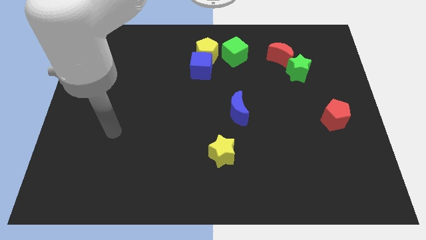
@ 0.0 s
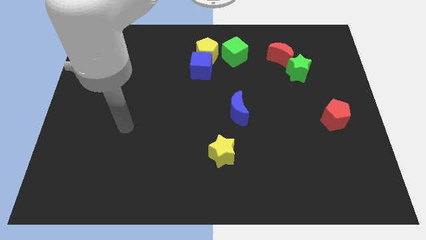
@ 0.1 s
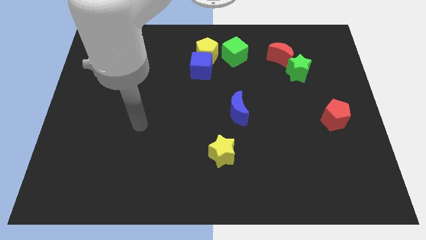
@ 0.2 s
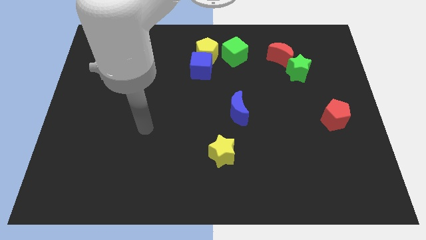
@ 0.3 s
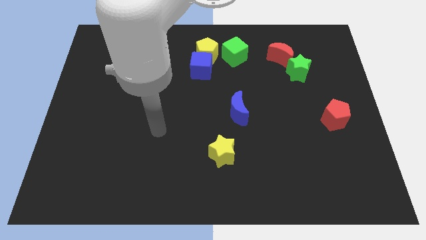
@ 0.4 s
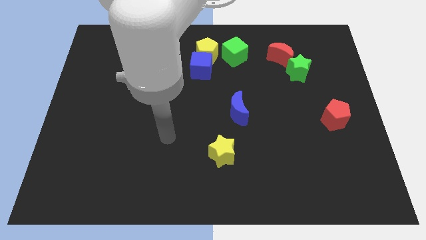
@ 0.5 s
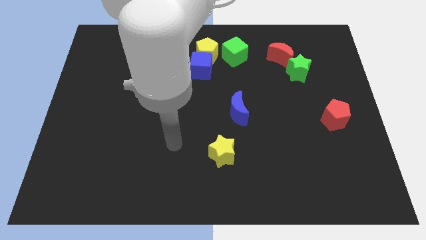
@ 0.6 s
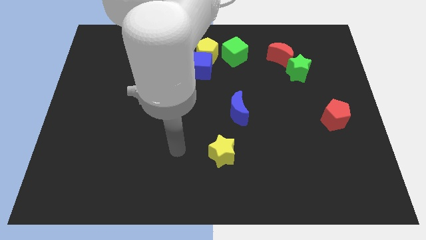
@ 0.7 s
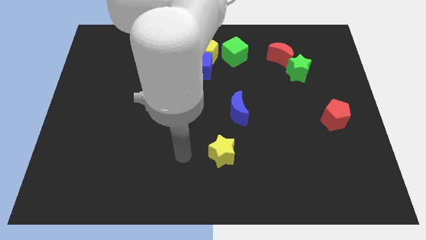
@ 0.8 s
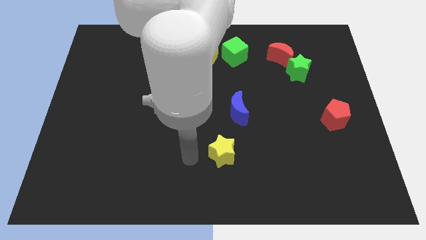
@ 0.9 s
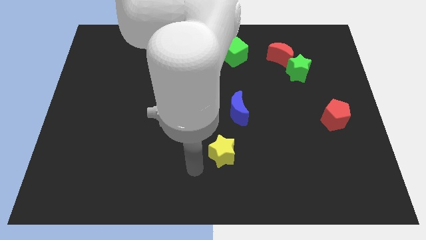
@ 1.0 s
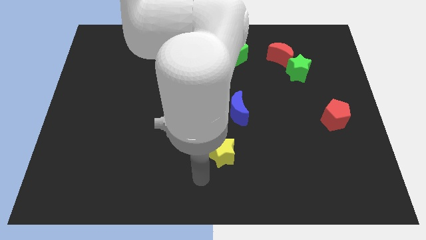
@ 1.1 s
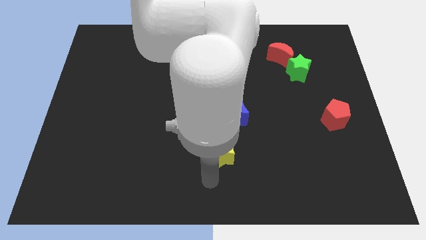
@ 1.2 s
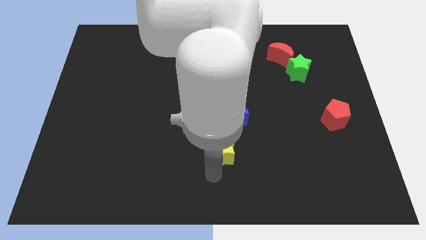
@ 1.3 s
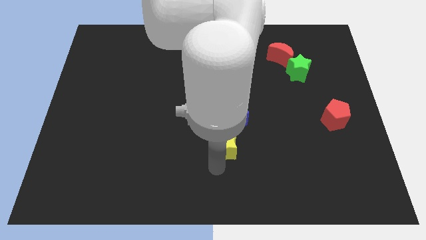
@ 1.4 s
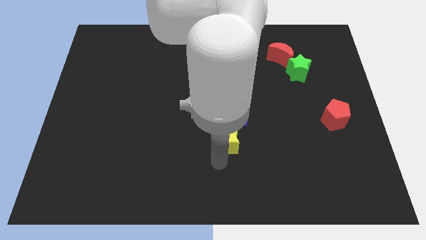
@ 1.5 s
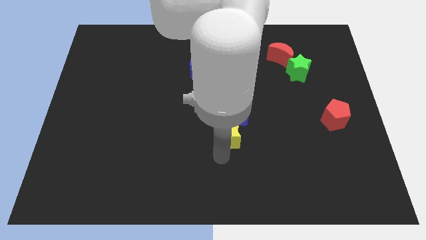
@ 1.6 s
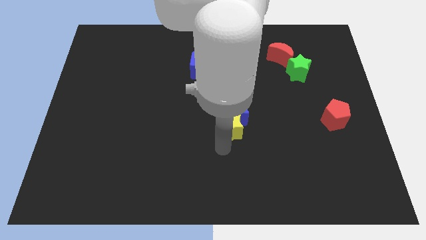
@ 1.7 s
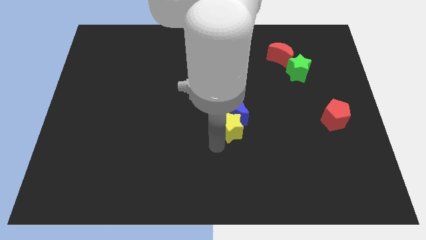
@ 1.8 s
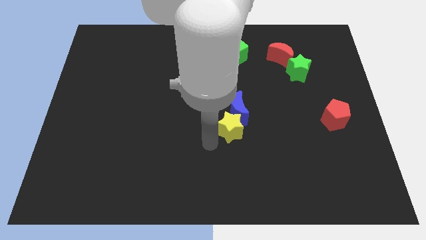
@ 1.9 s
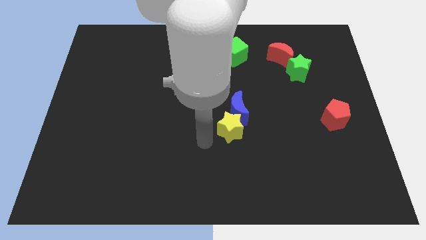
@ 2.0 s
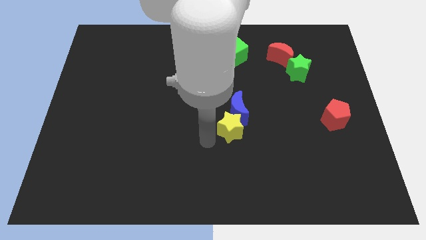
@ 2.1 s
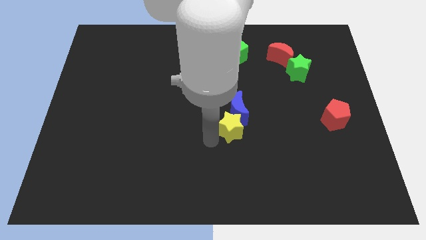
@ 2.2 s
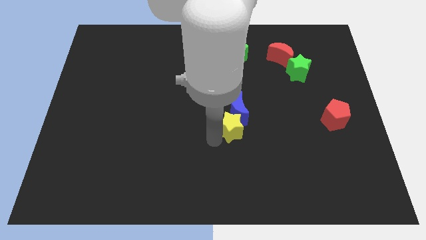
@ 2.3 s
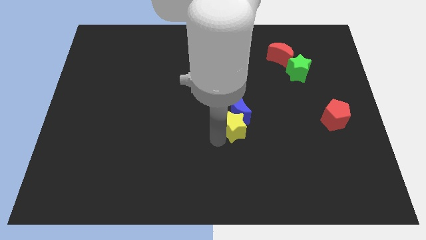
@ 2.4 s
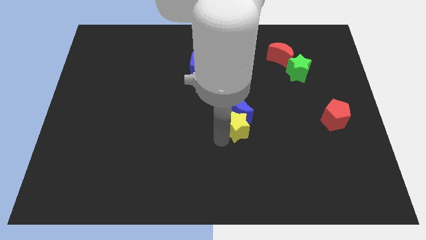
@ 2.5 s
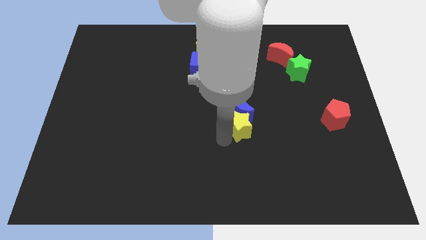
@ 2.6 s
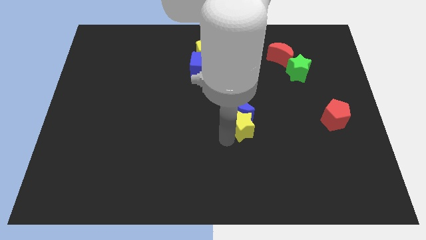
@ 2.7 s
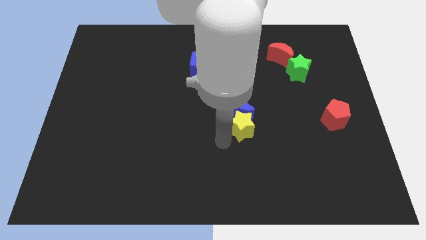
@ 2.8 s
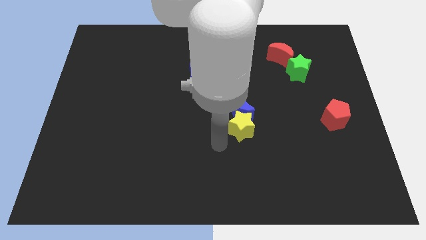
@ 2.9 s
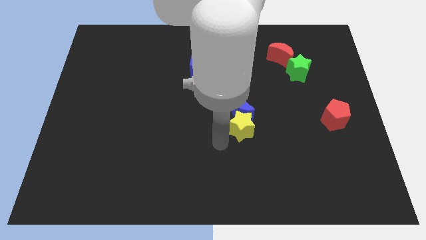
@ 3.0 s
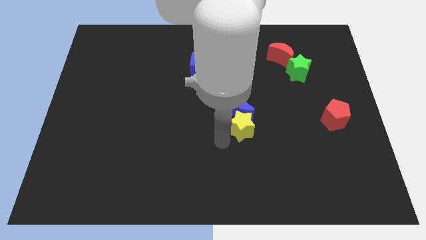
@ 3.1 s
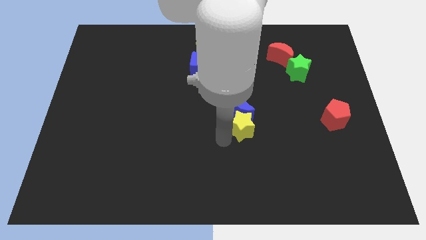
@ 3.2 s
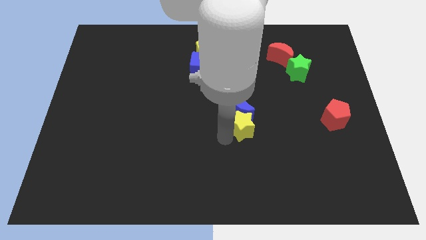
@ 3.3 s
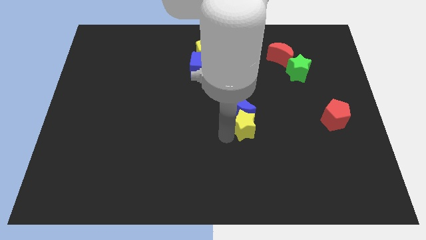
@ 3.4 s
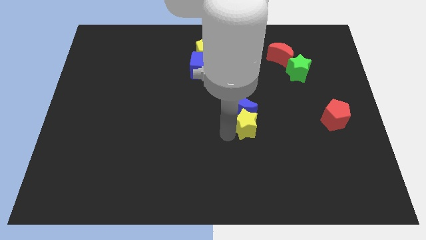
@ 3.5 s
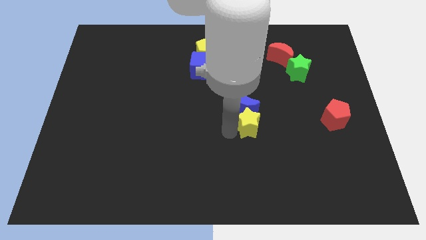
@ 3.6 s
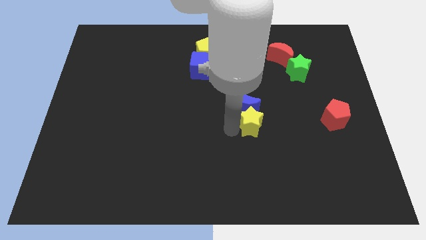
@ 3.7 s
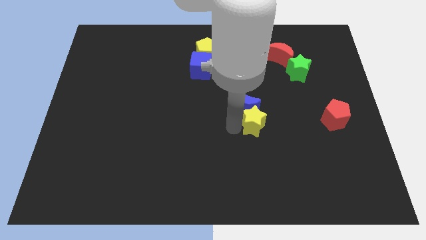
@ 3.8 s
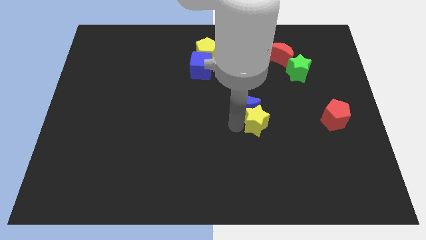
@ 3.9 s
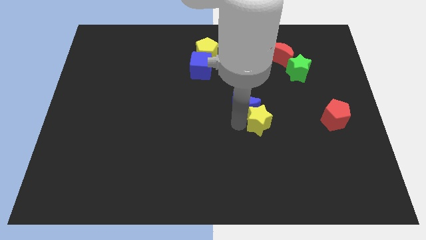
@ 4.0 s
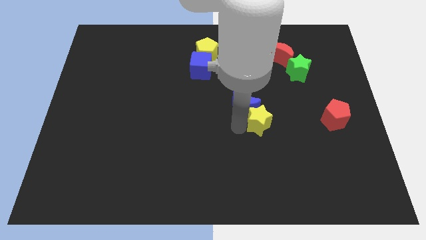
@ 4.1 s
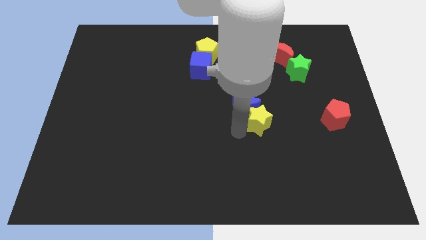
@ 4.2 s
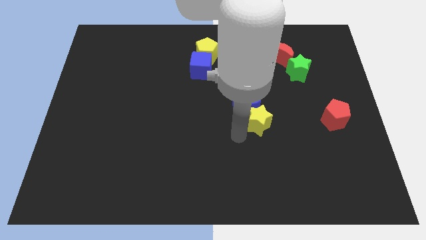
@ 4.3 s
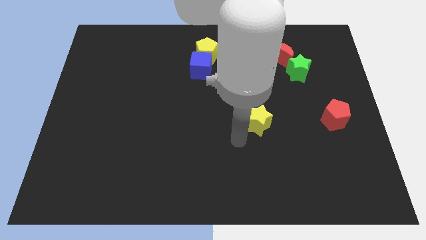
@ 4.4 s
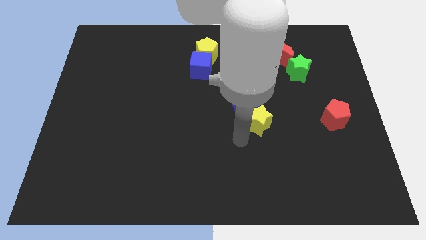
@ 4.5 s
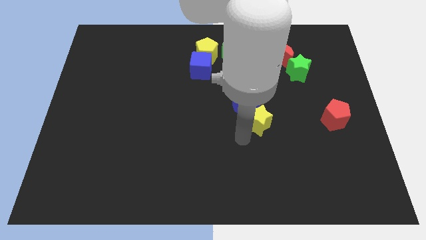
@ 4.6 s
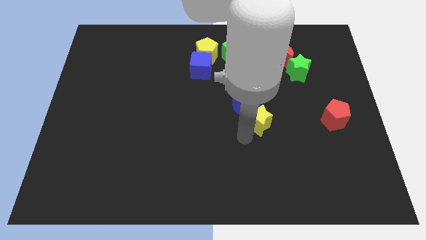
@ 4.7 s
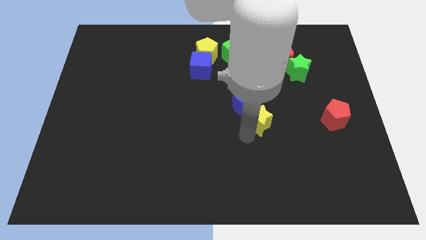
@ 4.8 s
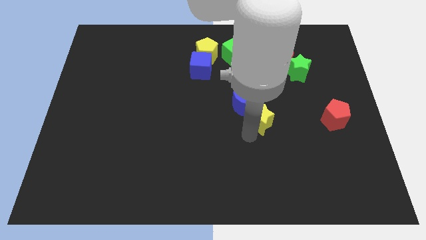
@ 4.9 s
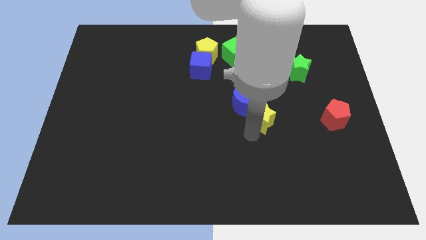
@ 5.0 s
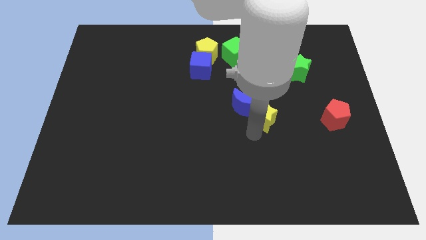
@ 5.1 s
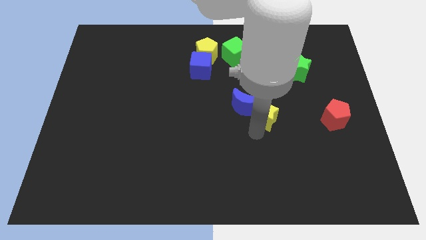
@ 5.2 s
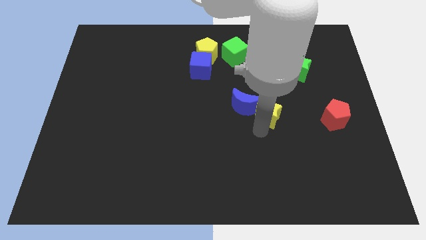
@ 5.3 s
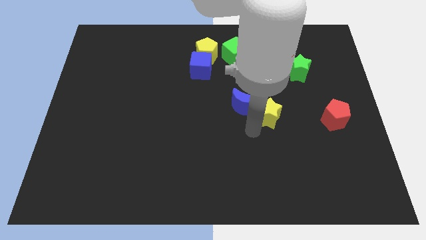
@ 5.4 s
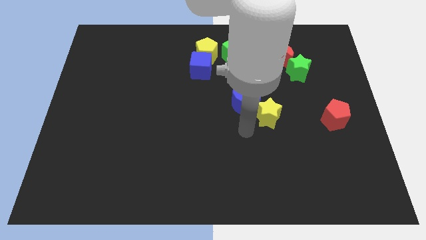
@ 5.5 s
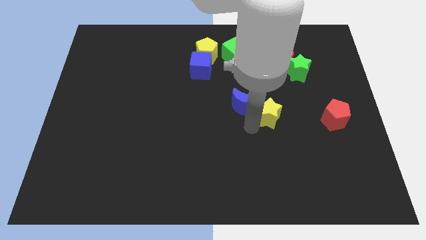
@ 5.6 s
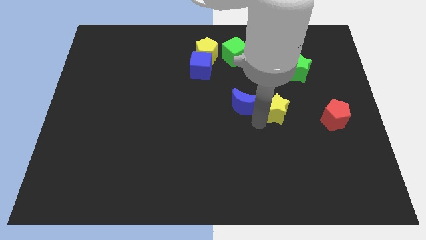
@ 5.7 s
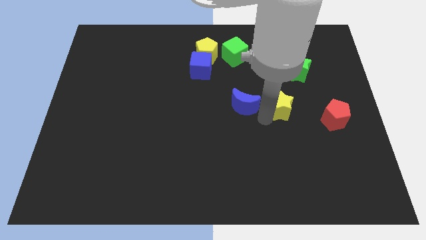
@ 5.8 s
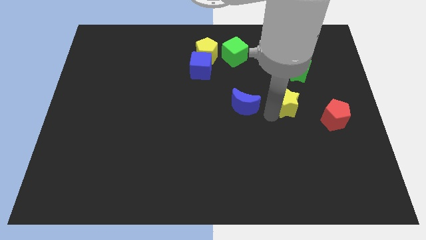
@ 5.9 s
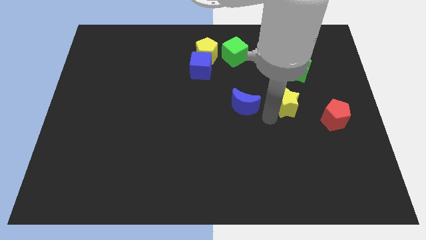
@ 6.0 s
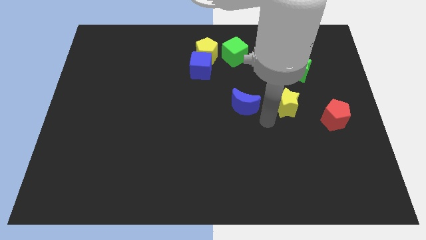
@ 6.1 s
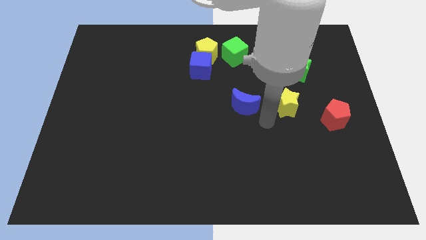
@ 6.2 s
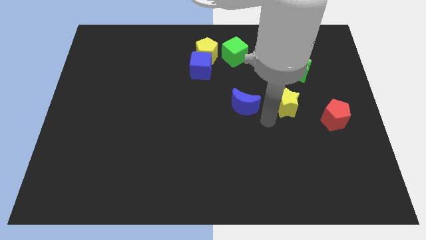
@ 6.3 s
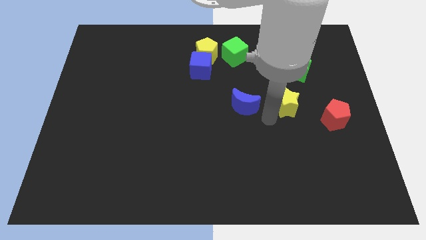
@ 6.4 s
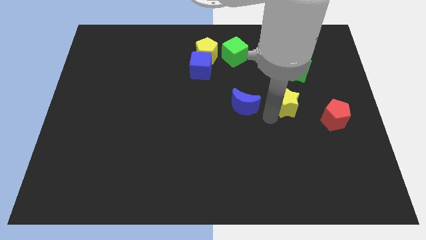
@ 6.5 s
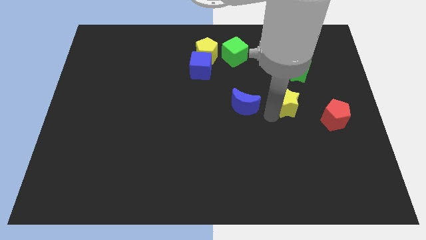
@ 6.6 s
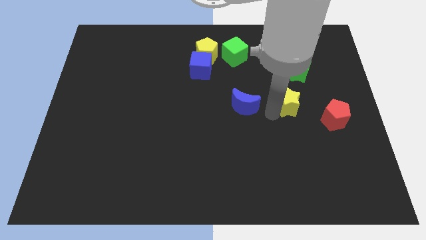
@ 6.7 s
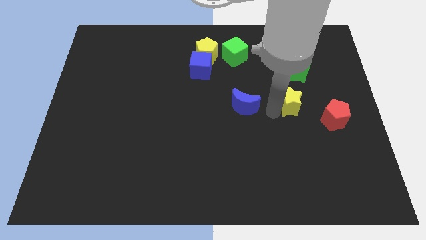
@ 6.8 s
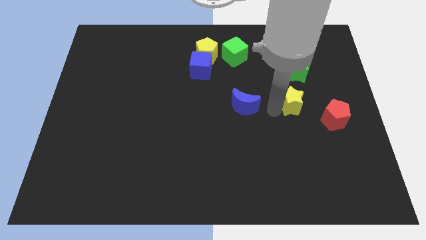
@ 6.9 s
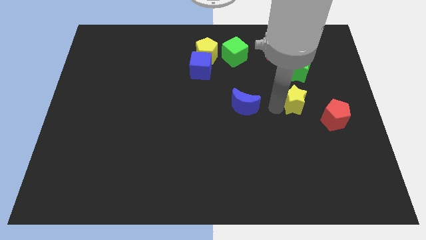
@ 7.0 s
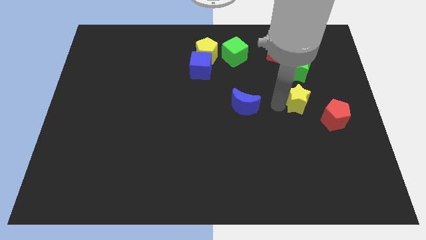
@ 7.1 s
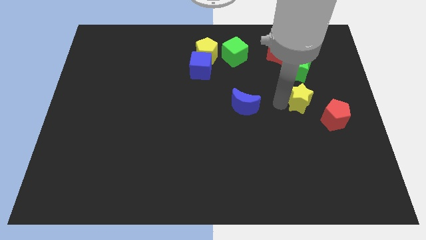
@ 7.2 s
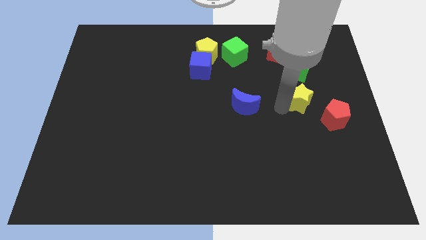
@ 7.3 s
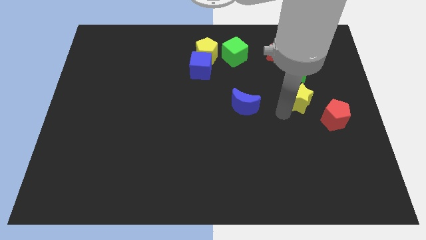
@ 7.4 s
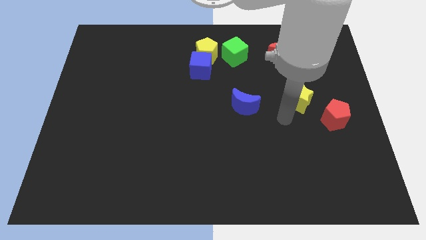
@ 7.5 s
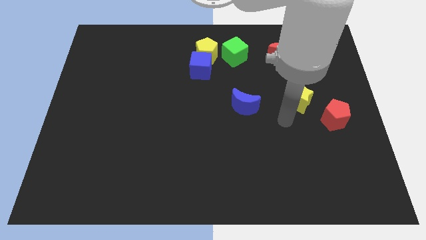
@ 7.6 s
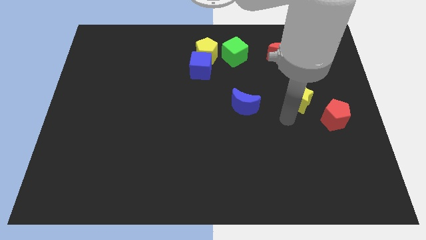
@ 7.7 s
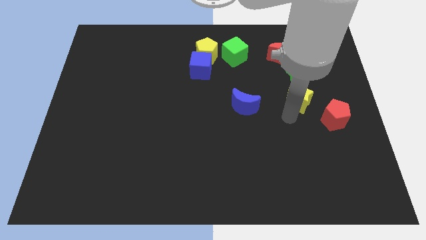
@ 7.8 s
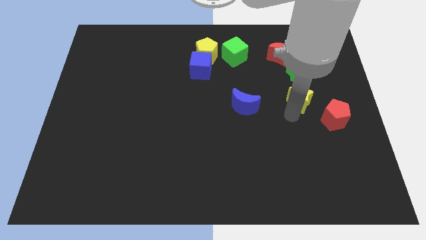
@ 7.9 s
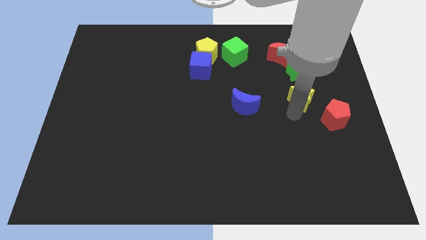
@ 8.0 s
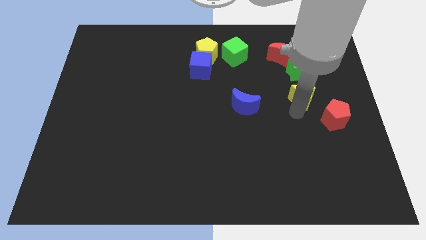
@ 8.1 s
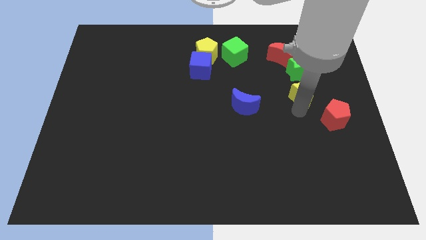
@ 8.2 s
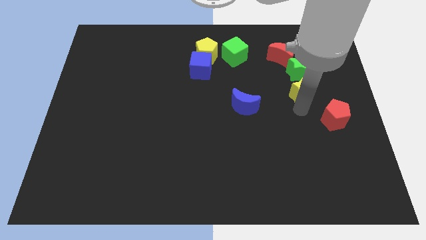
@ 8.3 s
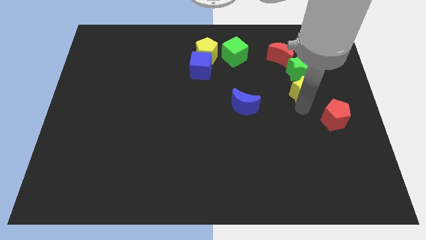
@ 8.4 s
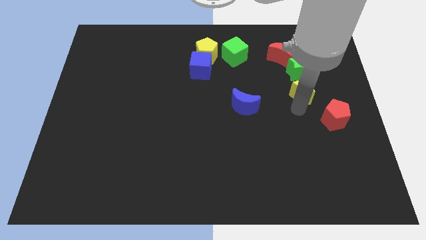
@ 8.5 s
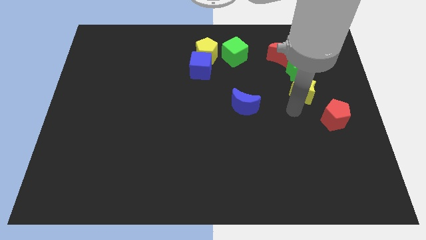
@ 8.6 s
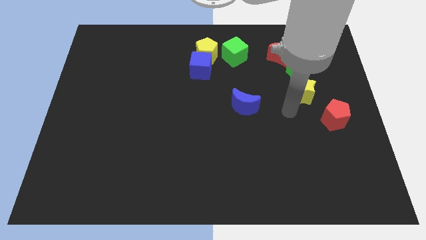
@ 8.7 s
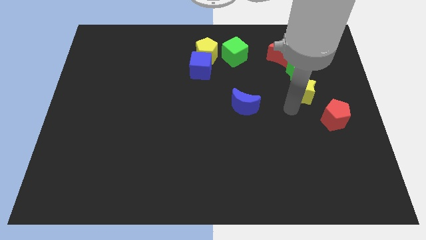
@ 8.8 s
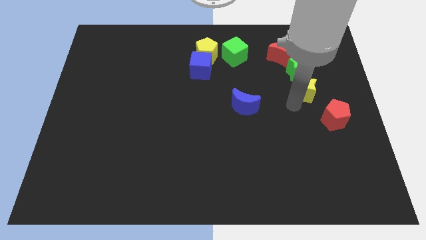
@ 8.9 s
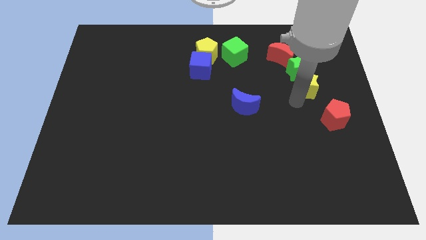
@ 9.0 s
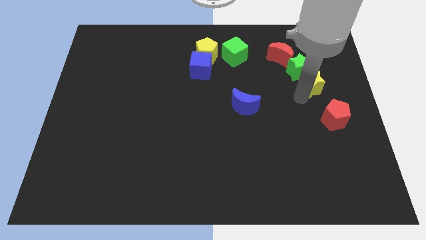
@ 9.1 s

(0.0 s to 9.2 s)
slide the yellow star to the bottom right side of the red moon
